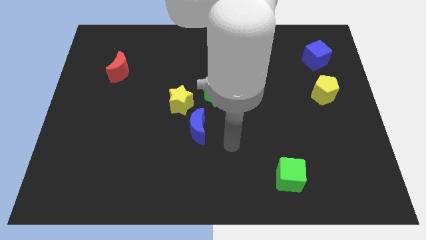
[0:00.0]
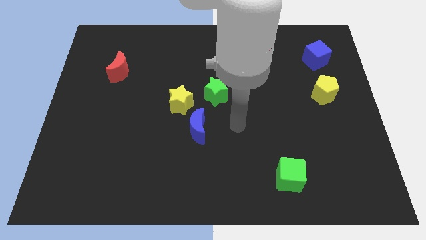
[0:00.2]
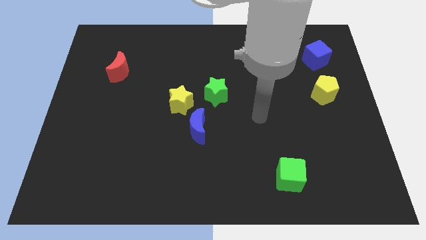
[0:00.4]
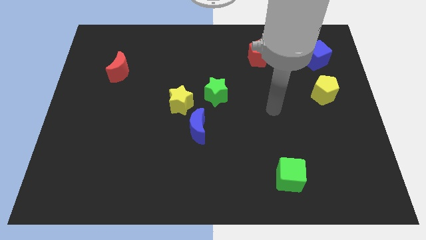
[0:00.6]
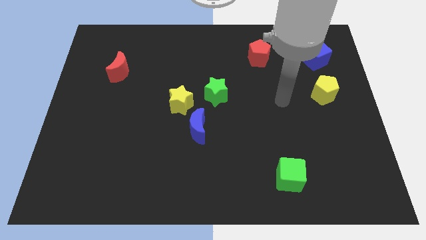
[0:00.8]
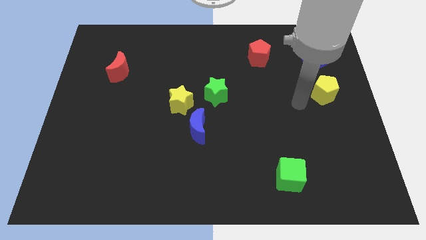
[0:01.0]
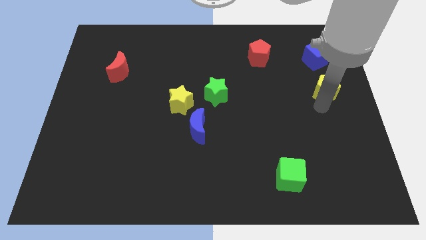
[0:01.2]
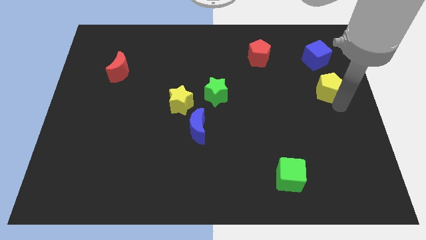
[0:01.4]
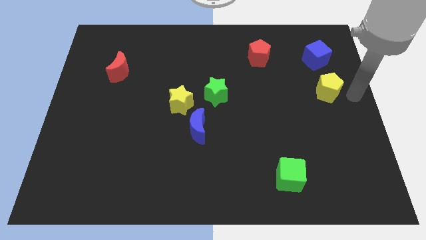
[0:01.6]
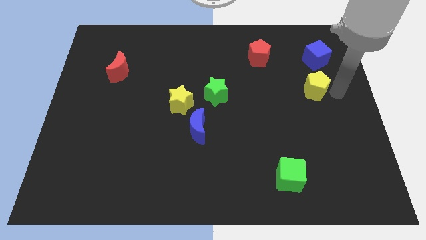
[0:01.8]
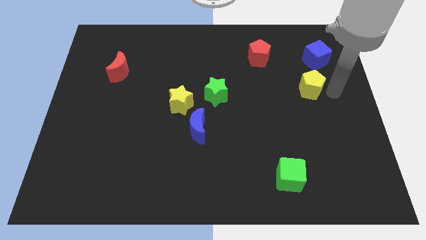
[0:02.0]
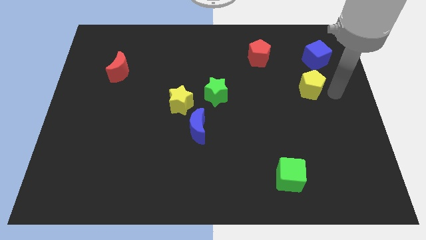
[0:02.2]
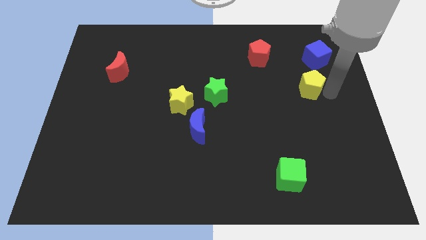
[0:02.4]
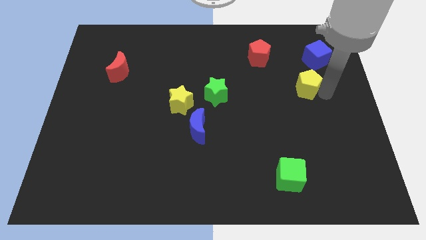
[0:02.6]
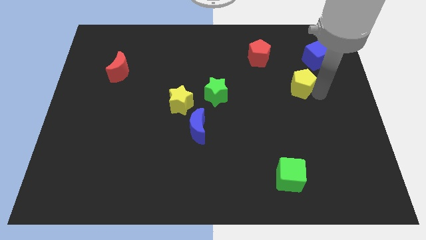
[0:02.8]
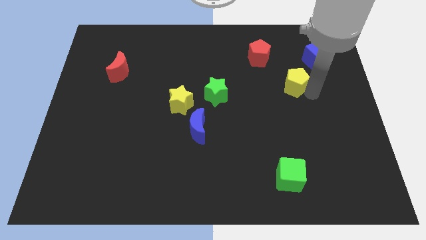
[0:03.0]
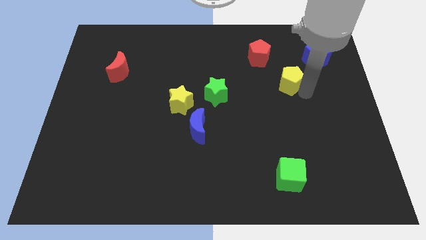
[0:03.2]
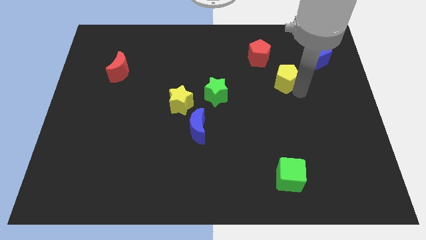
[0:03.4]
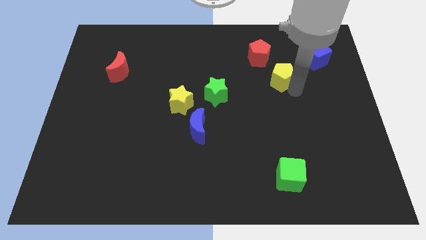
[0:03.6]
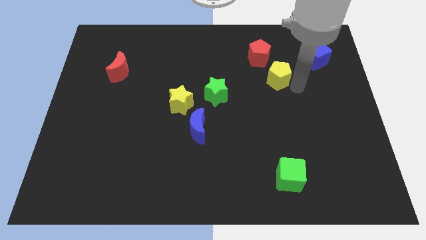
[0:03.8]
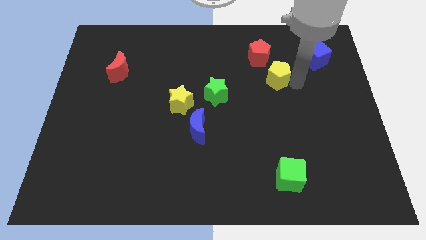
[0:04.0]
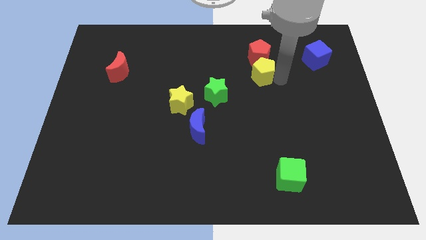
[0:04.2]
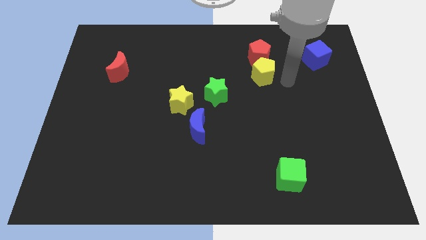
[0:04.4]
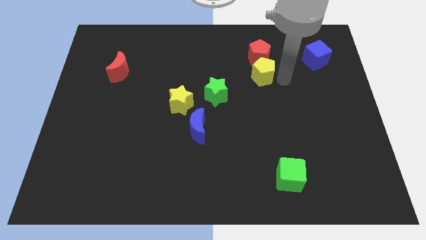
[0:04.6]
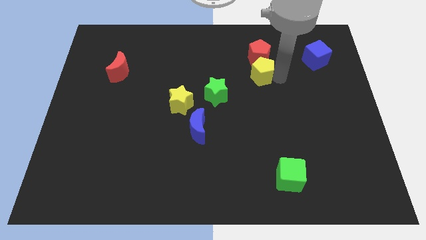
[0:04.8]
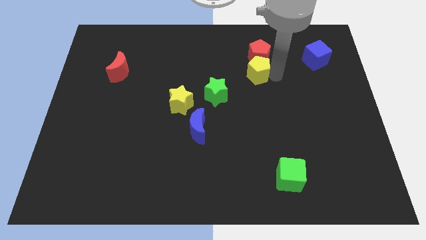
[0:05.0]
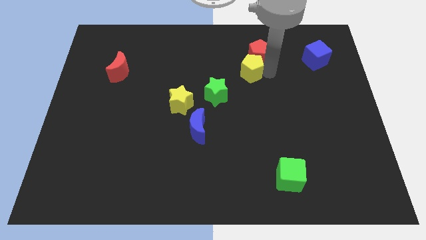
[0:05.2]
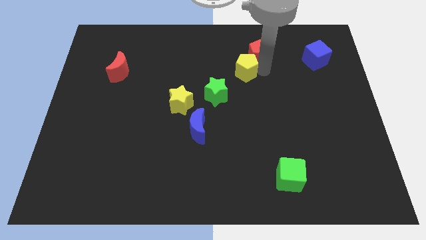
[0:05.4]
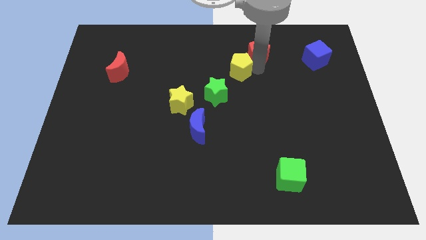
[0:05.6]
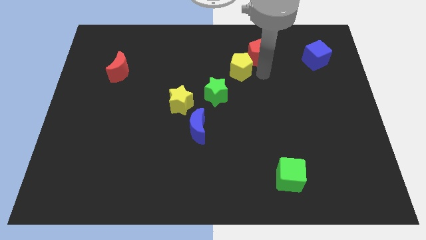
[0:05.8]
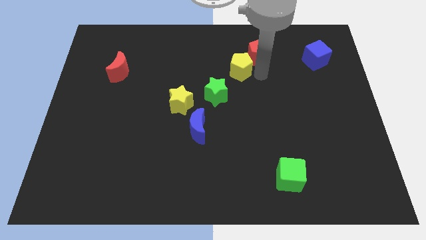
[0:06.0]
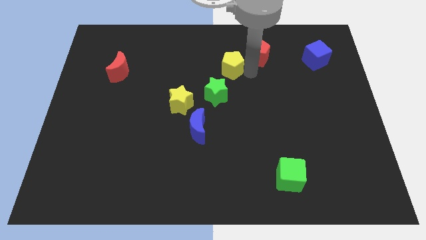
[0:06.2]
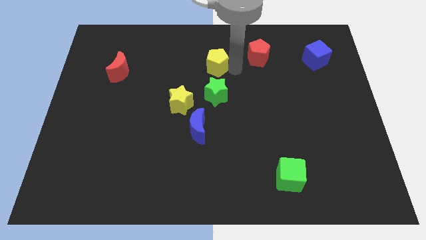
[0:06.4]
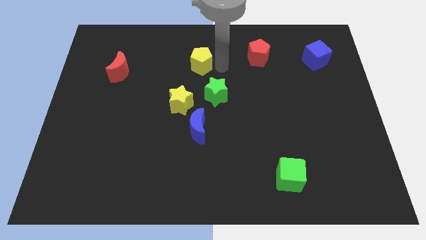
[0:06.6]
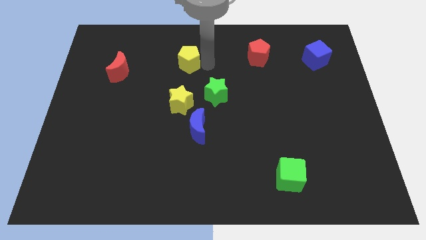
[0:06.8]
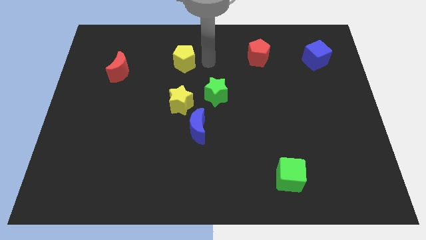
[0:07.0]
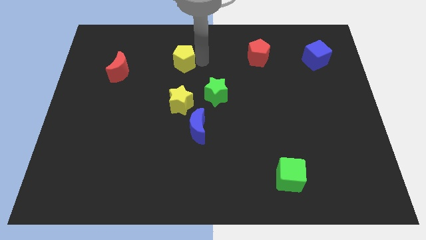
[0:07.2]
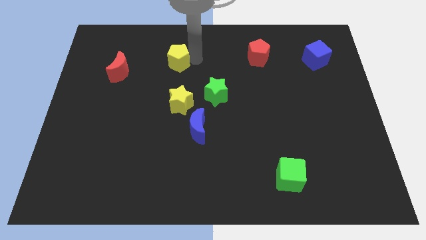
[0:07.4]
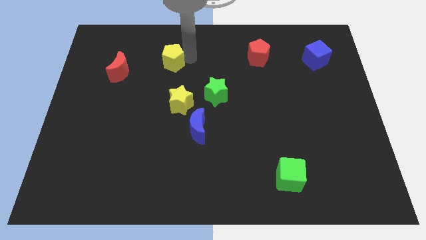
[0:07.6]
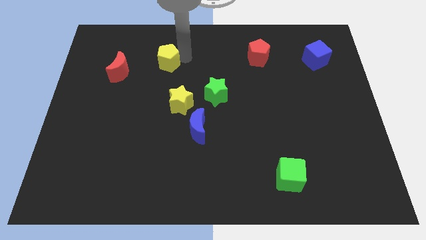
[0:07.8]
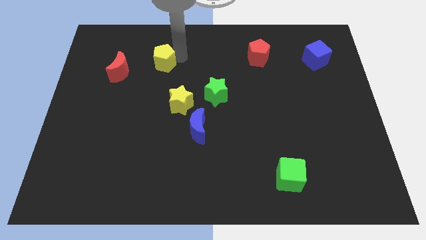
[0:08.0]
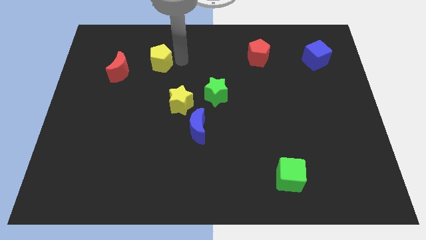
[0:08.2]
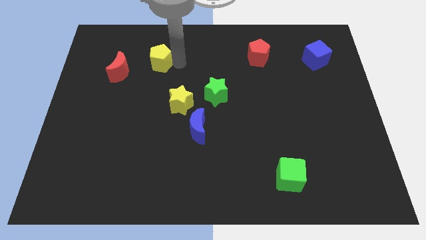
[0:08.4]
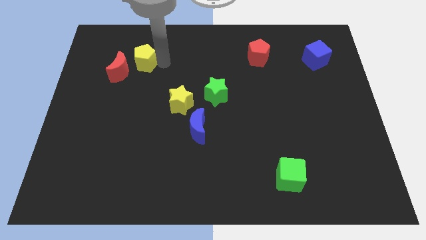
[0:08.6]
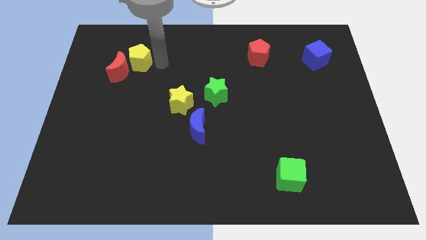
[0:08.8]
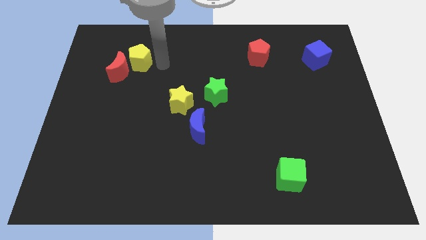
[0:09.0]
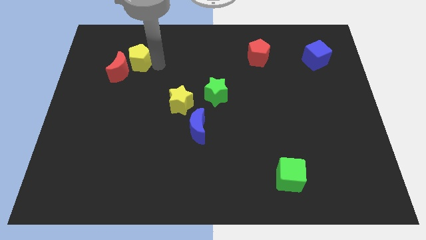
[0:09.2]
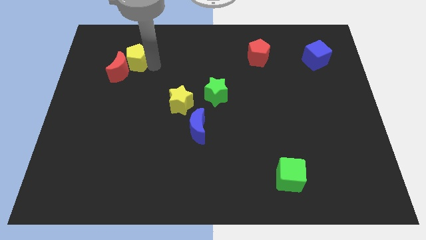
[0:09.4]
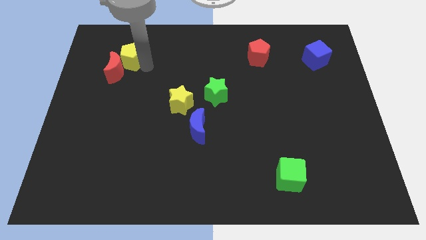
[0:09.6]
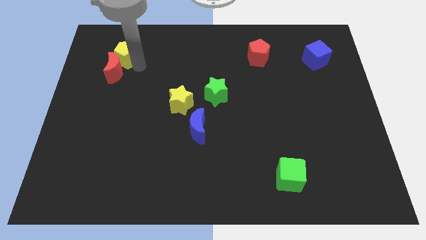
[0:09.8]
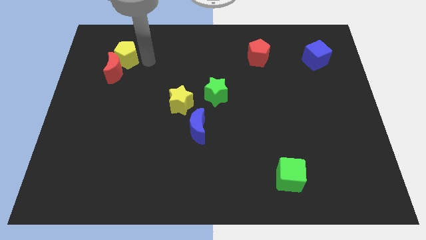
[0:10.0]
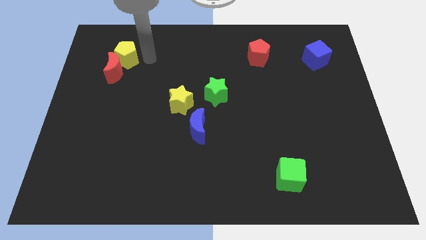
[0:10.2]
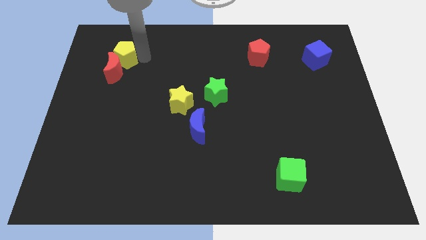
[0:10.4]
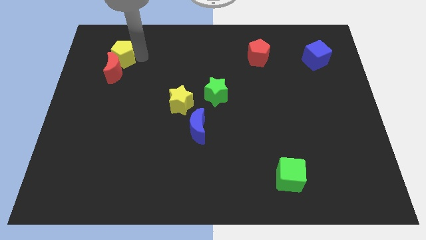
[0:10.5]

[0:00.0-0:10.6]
put the yellow pentagon to the top left side of the red moon

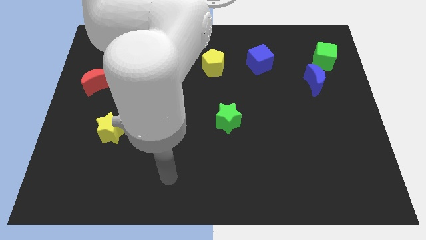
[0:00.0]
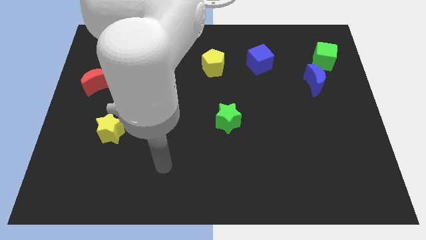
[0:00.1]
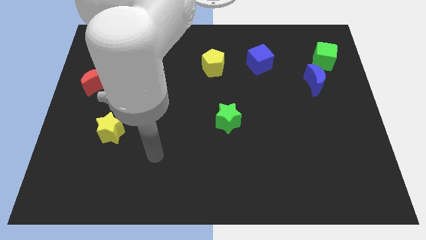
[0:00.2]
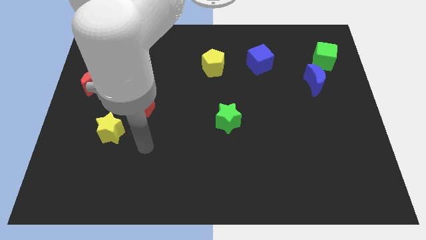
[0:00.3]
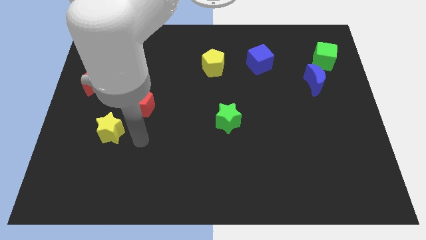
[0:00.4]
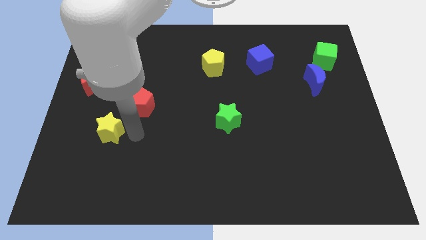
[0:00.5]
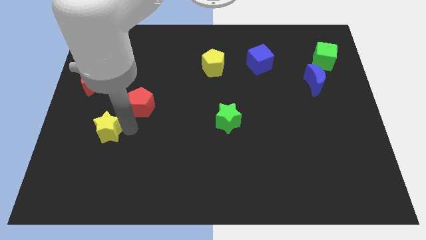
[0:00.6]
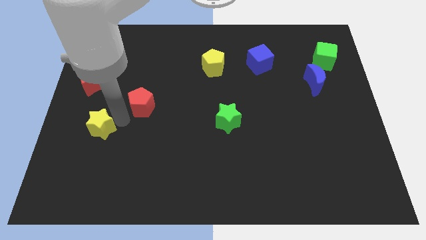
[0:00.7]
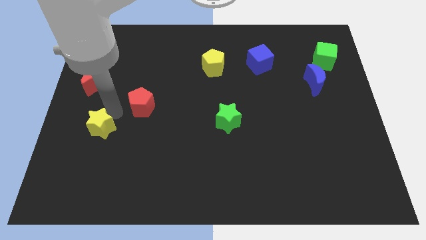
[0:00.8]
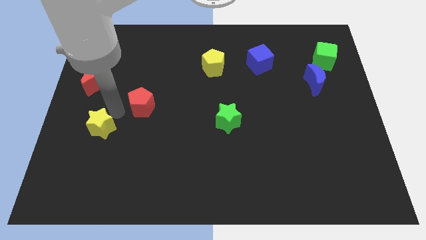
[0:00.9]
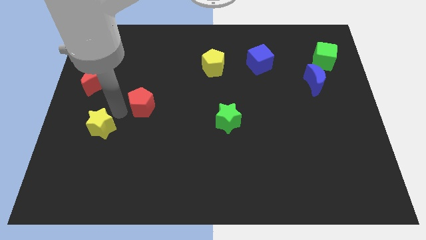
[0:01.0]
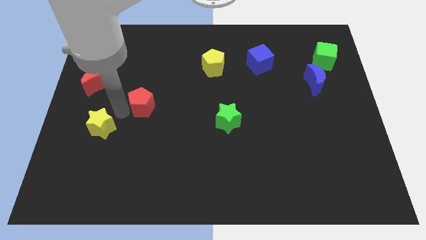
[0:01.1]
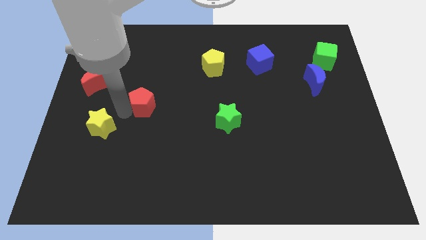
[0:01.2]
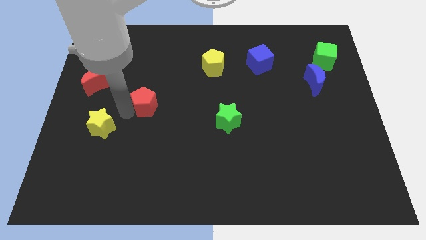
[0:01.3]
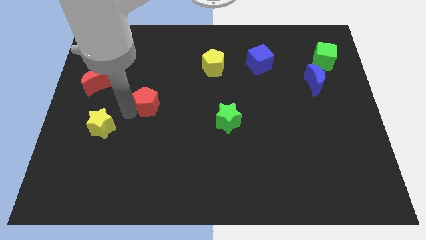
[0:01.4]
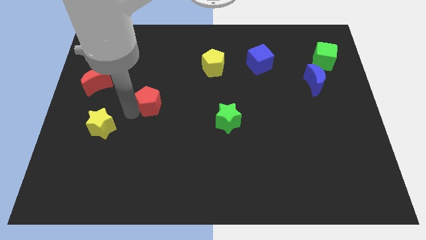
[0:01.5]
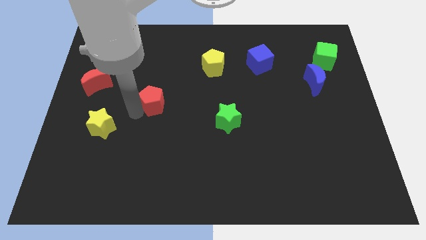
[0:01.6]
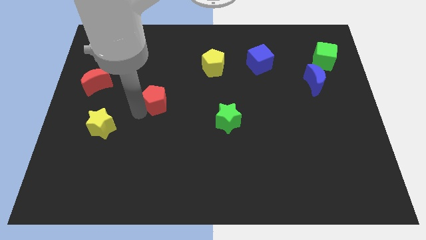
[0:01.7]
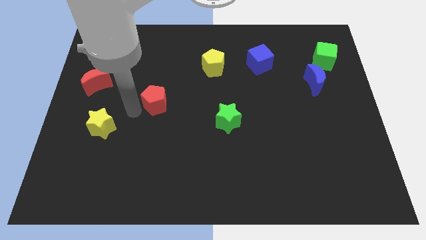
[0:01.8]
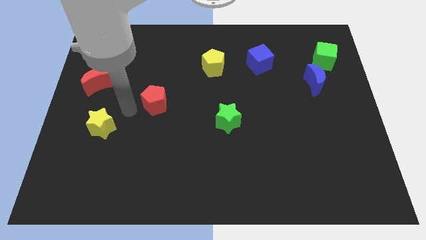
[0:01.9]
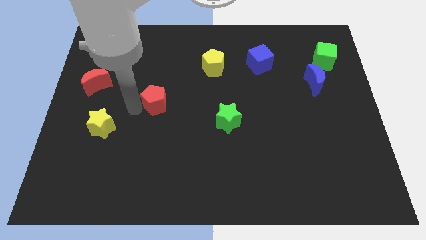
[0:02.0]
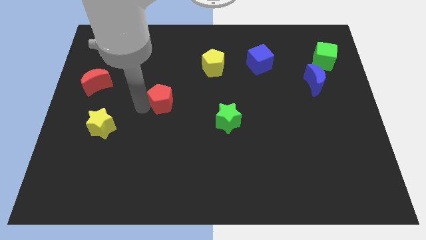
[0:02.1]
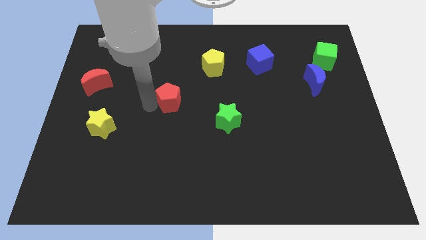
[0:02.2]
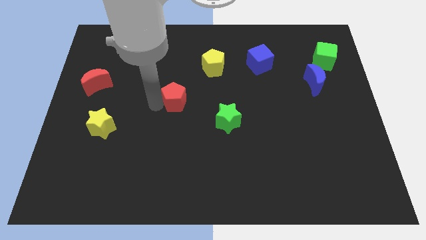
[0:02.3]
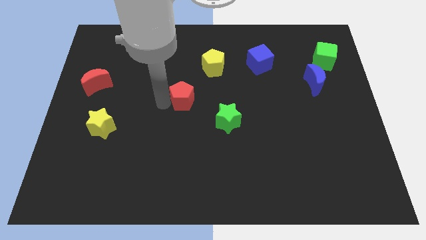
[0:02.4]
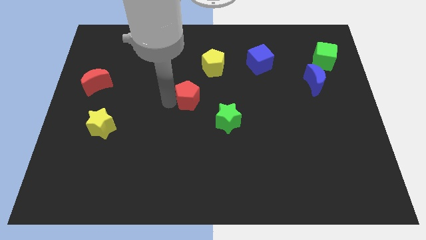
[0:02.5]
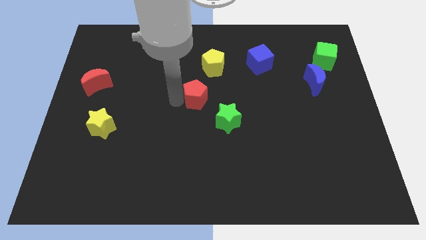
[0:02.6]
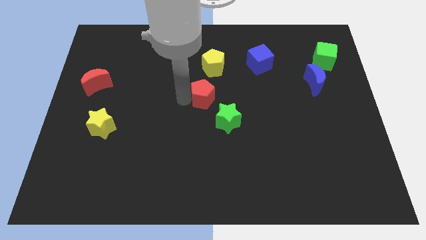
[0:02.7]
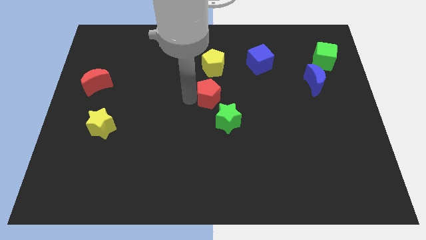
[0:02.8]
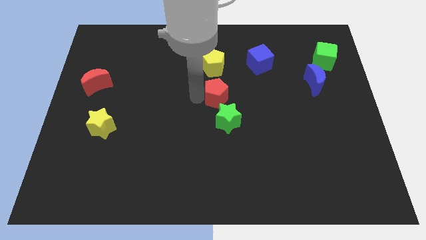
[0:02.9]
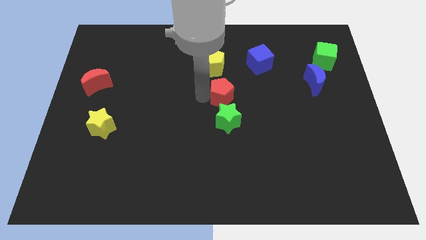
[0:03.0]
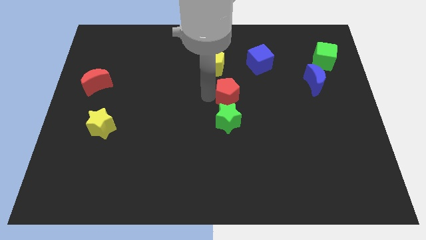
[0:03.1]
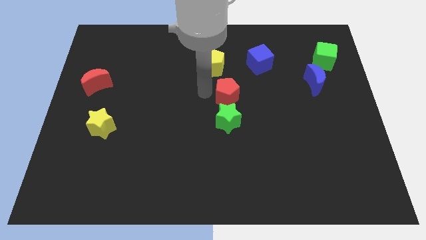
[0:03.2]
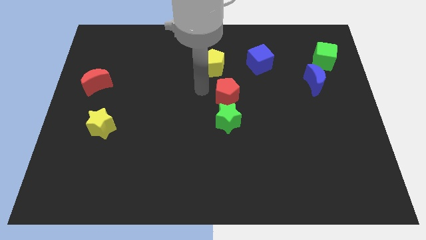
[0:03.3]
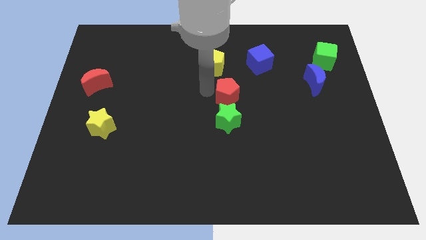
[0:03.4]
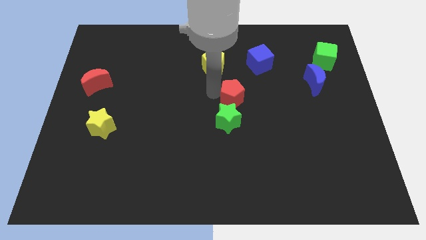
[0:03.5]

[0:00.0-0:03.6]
move the red pentagon diagonally up and to the right of the green star
